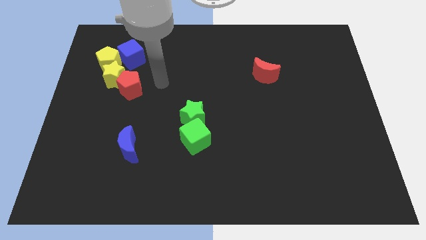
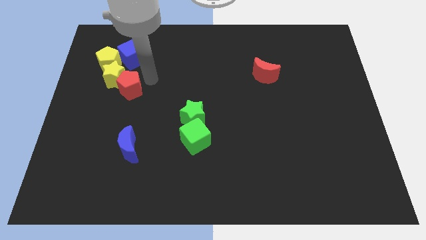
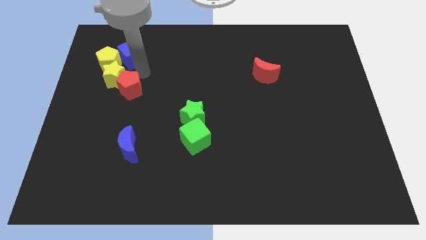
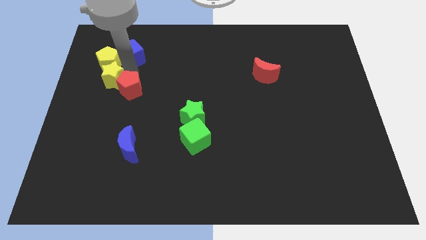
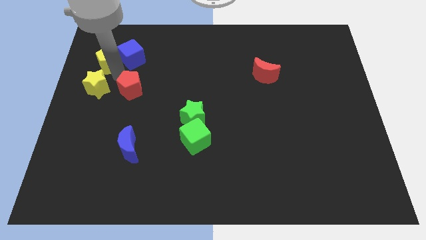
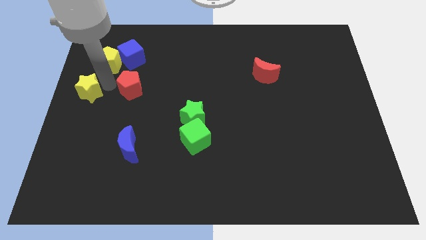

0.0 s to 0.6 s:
separate the red pentagon from the yellow star

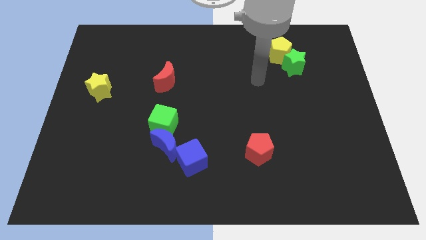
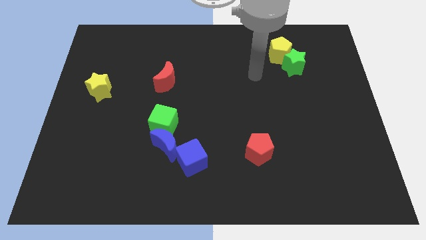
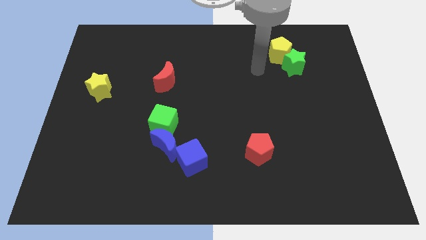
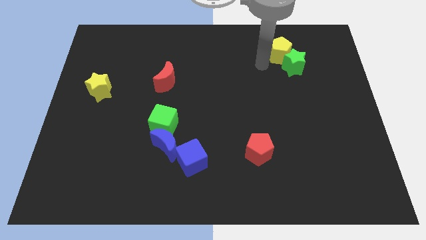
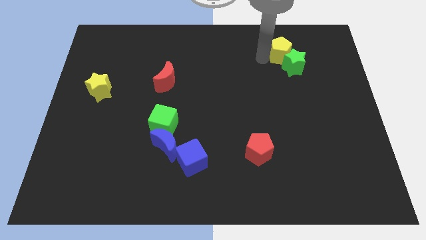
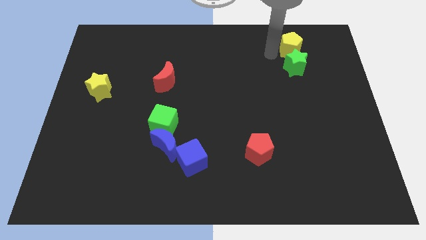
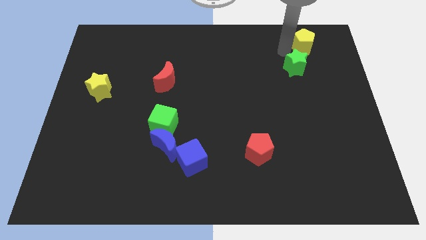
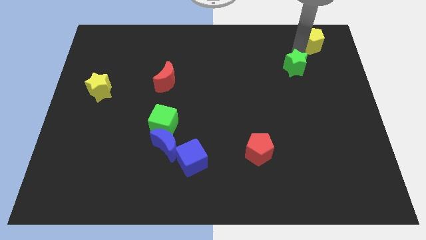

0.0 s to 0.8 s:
separate the green star from the yellow pentagon

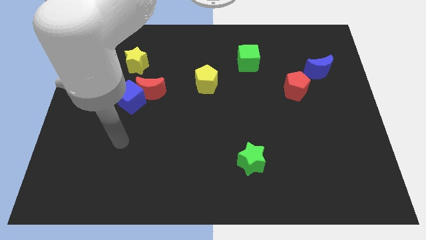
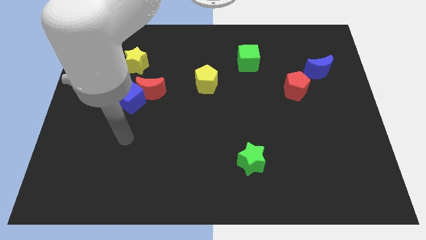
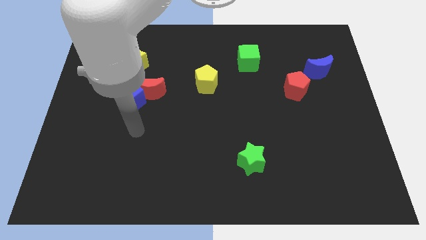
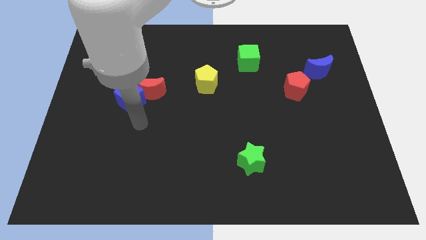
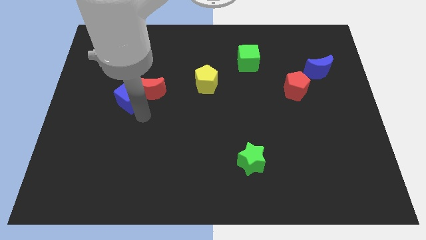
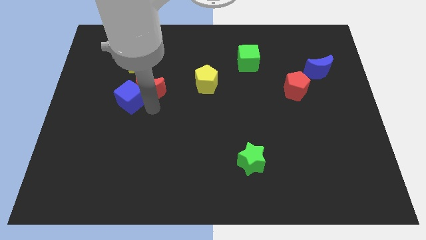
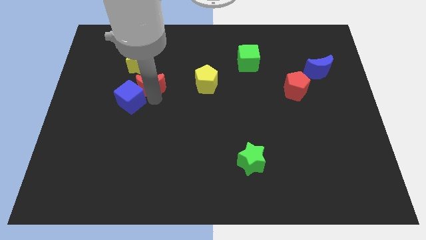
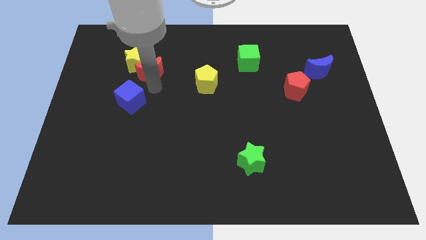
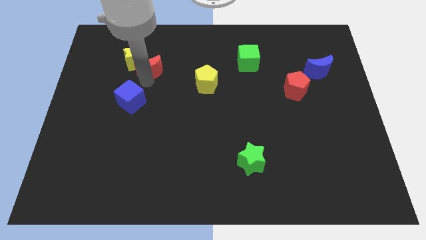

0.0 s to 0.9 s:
separate the blue cube from the red moon

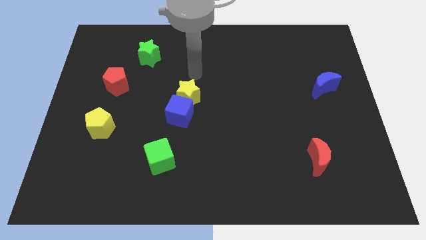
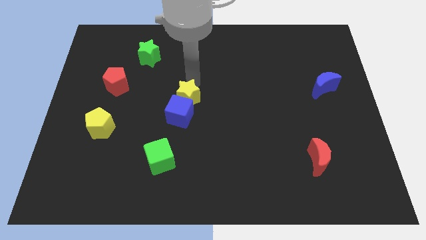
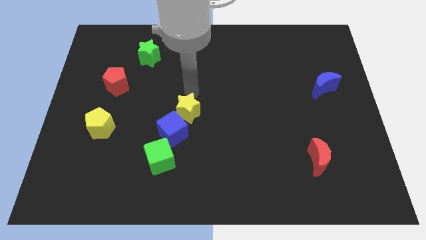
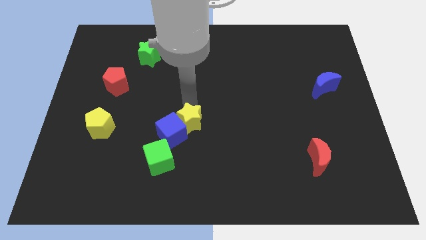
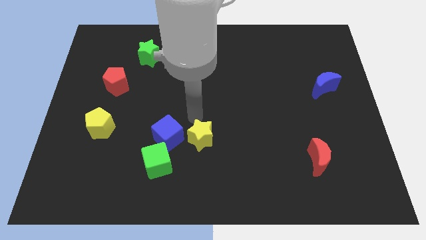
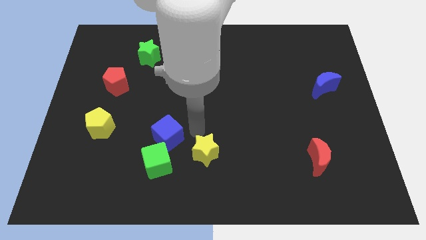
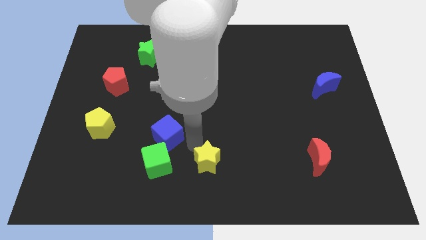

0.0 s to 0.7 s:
move the blue cube away from the yellow star

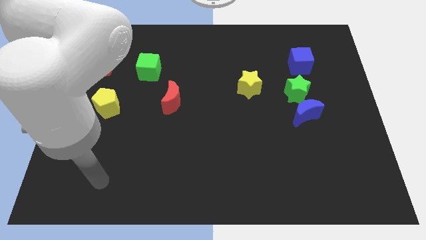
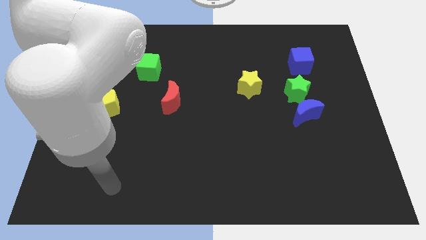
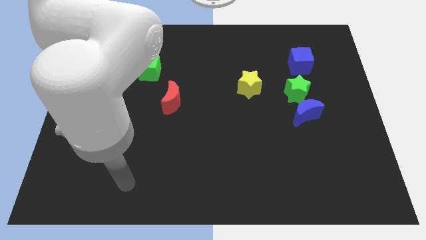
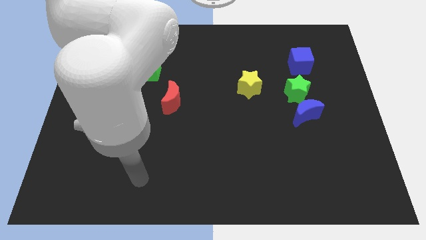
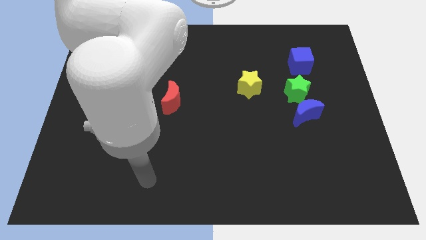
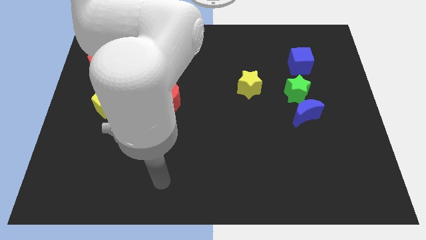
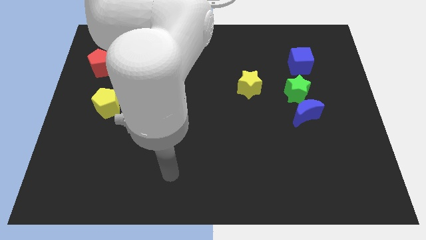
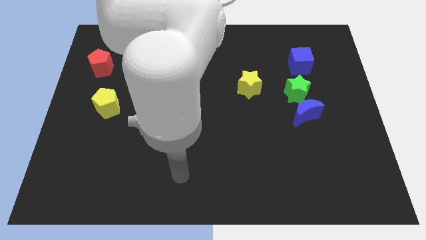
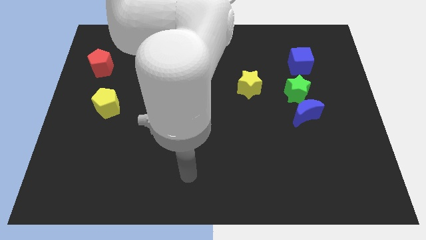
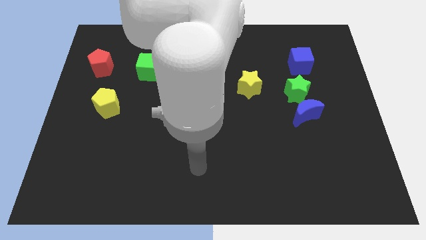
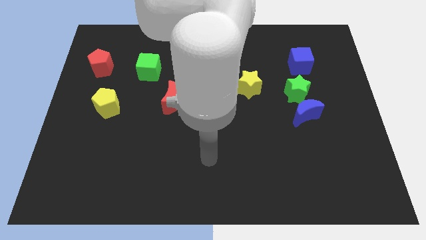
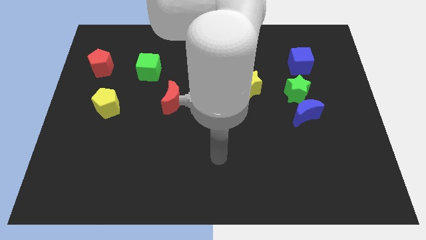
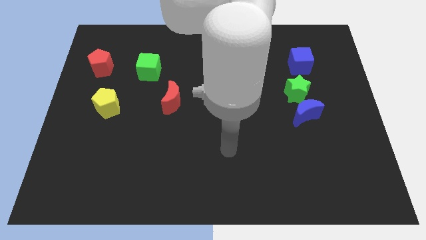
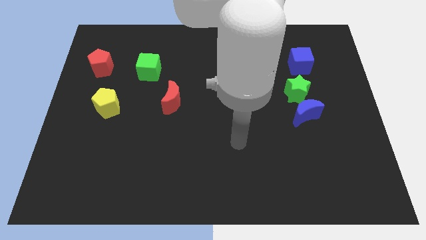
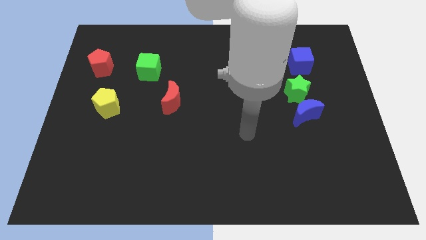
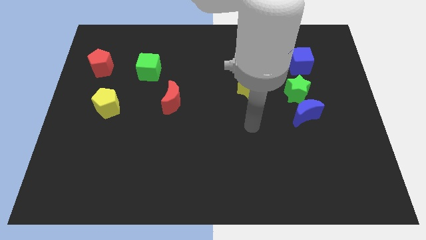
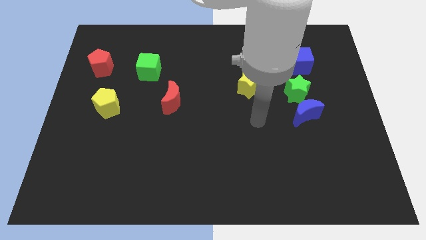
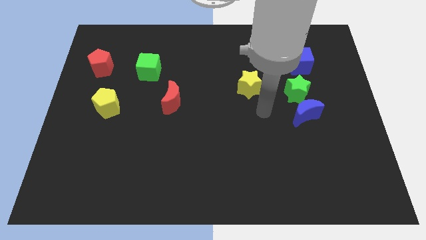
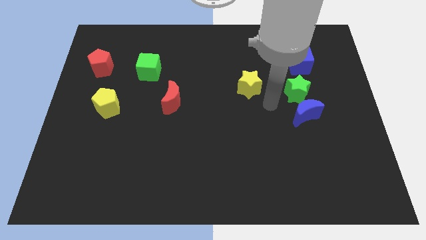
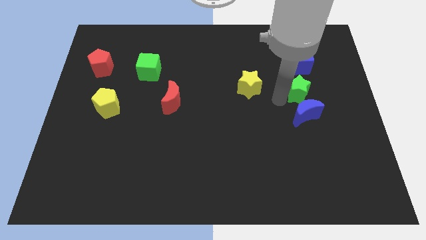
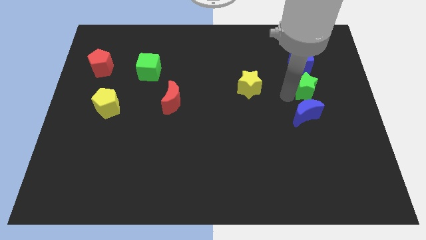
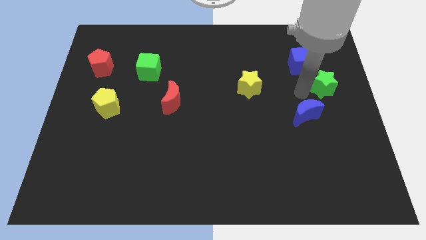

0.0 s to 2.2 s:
pull the blue moon apart from the green star

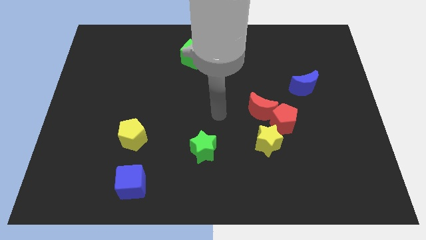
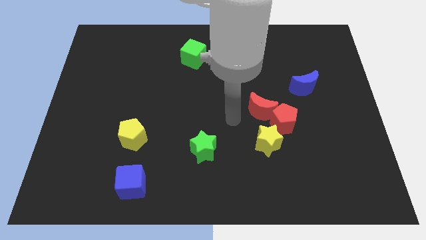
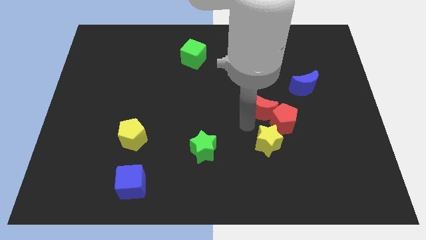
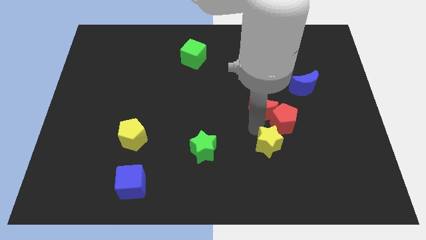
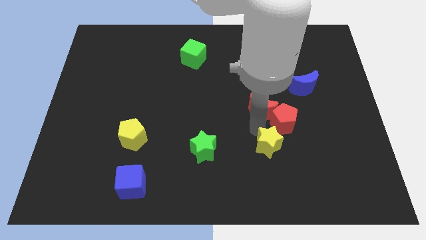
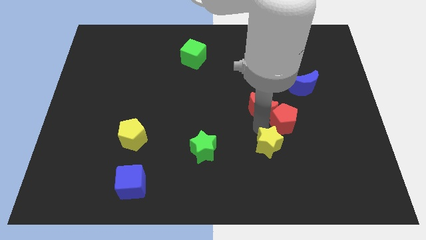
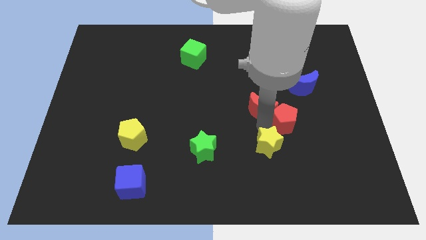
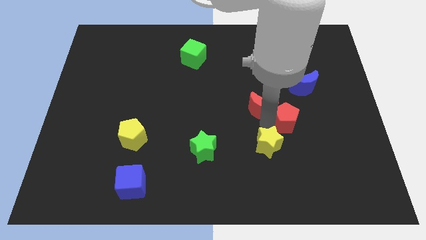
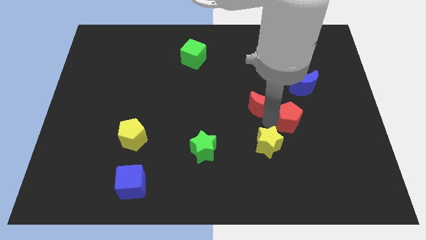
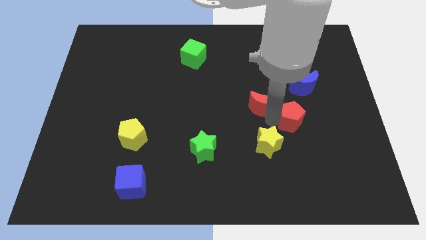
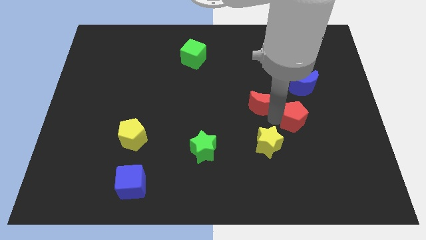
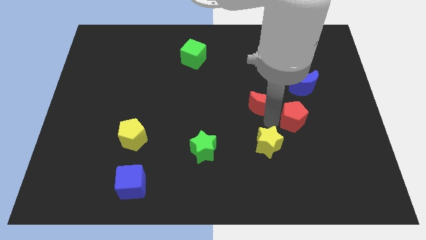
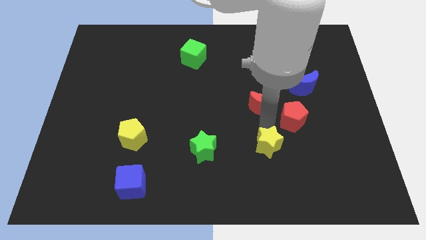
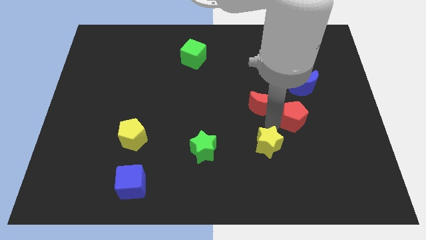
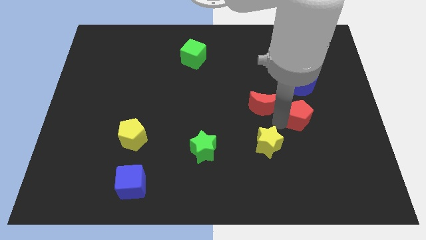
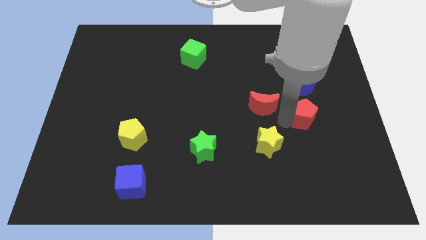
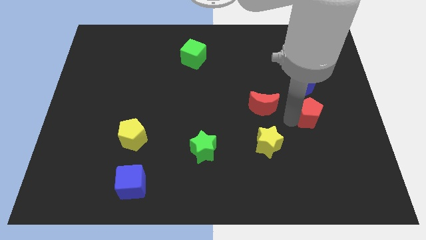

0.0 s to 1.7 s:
pull the red pentagon apart from the red moon and yellow star

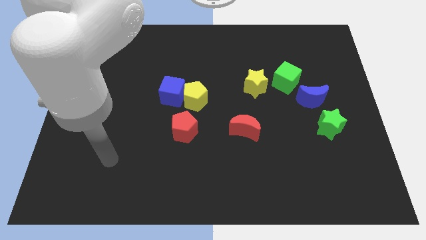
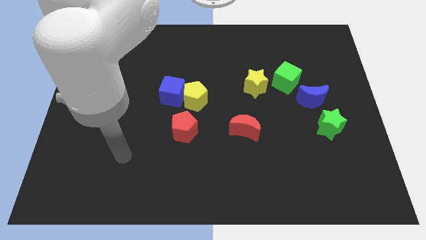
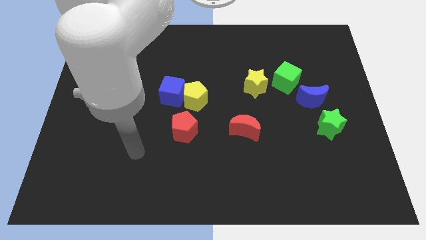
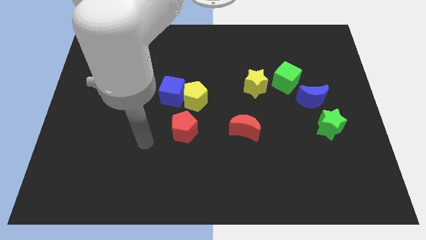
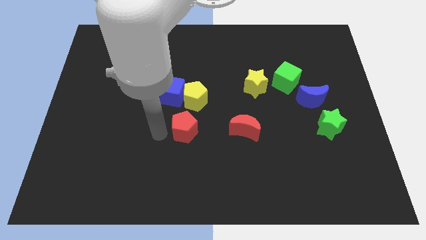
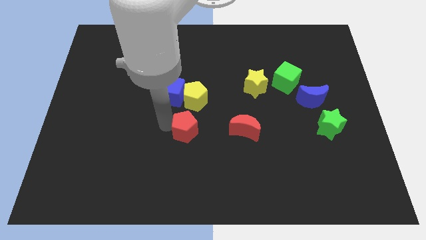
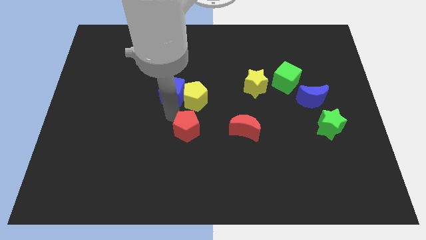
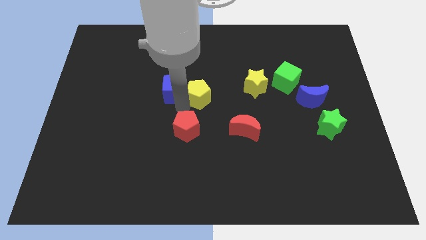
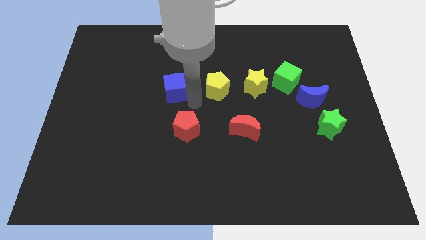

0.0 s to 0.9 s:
move the blue cube away from the yellow pentagon

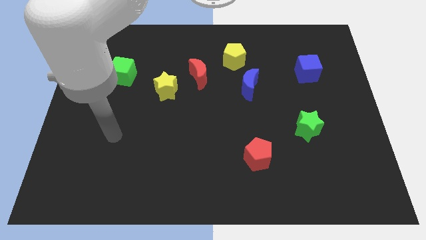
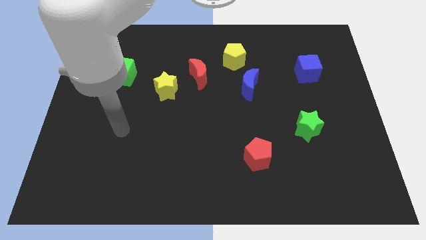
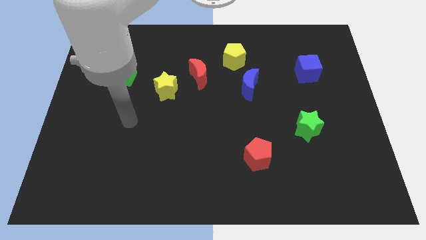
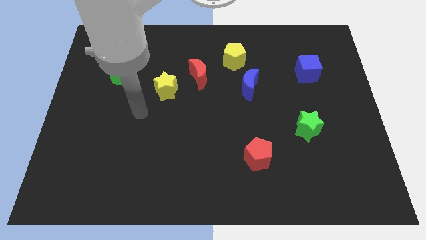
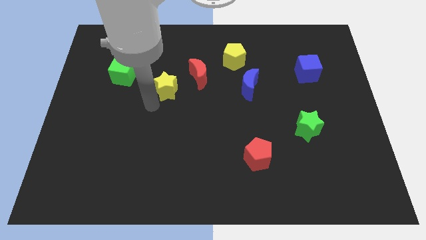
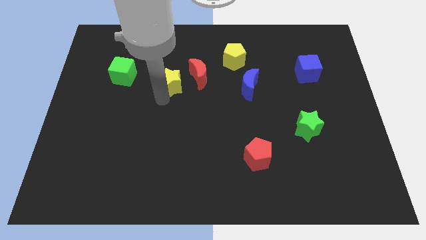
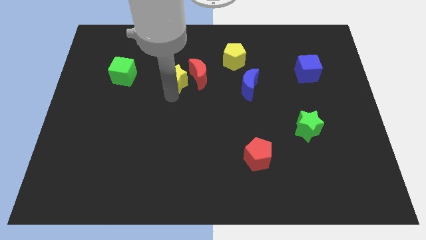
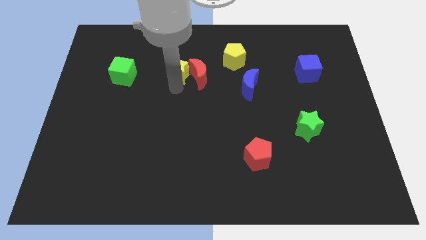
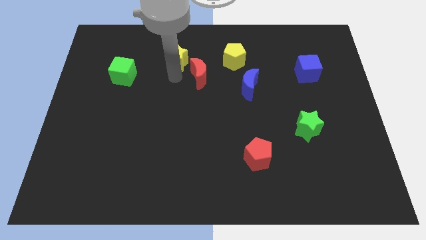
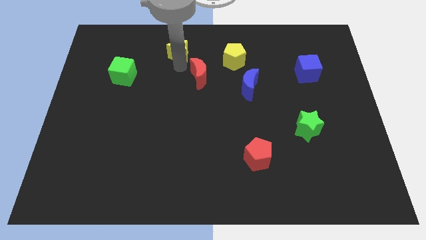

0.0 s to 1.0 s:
separate the red moon from the yellow star

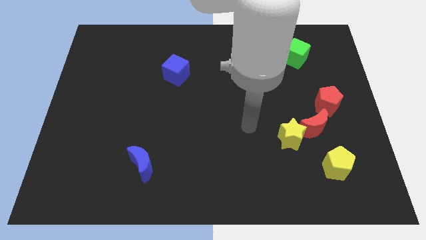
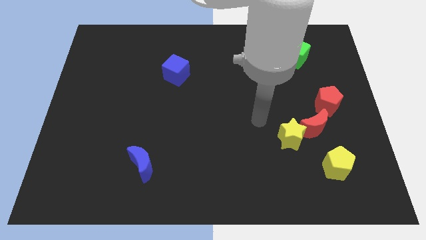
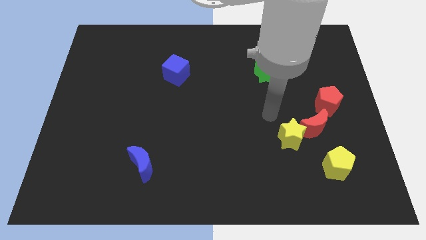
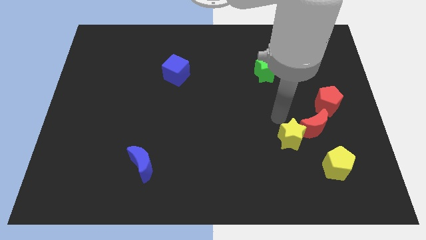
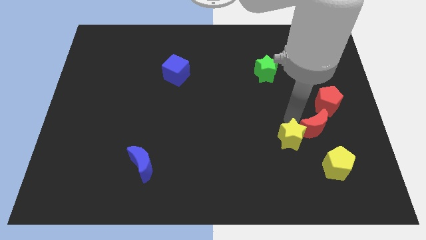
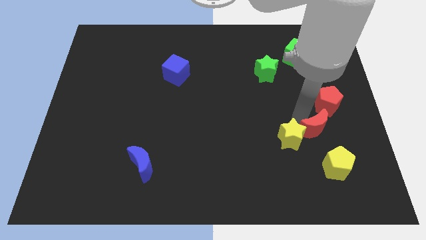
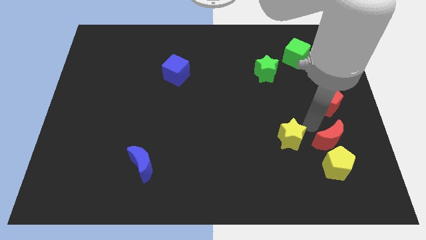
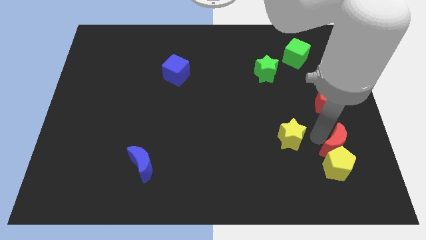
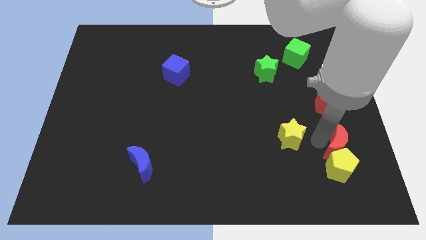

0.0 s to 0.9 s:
pull the yellow star apart from the red moon
